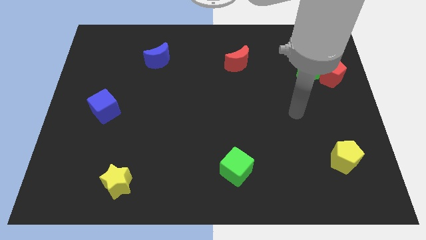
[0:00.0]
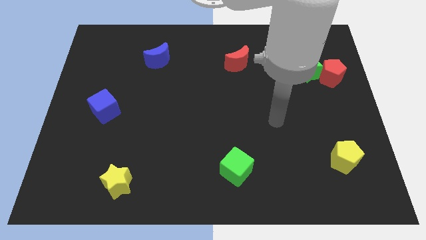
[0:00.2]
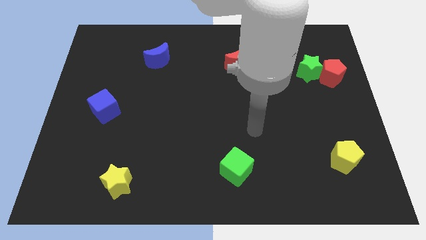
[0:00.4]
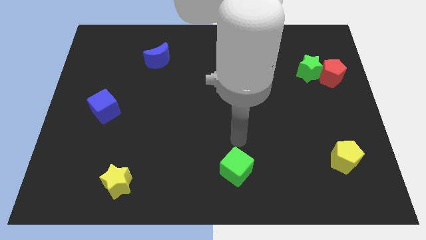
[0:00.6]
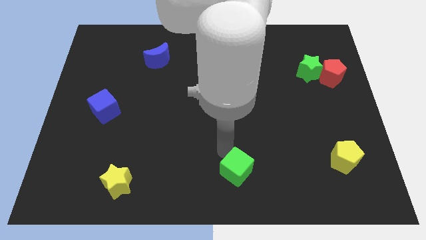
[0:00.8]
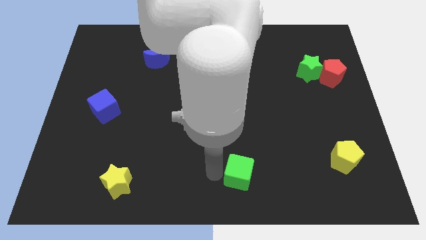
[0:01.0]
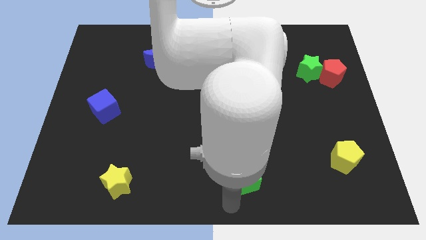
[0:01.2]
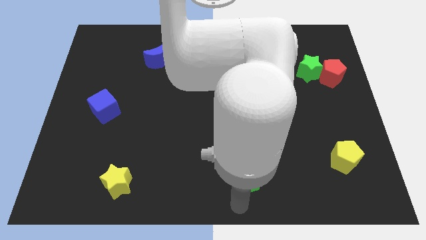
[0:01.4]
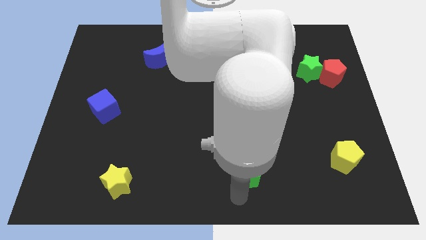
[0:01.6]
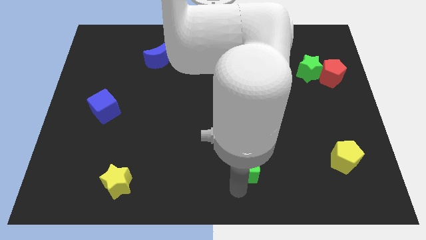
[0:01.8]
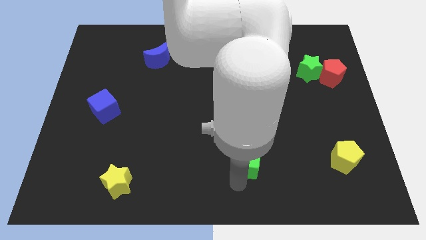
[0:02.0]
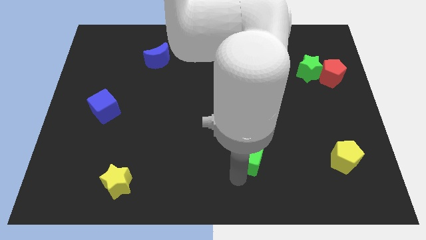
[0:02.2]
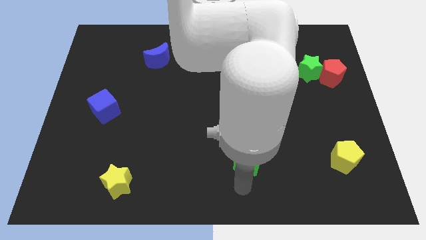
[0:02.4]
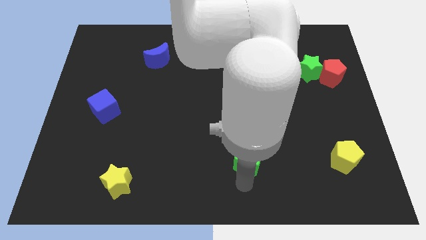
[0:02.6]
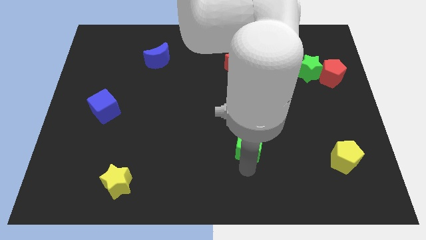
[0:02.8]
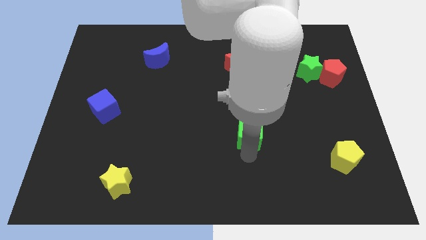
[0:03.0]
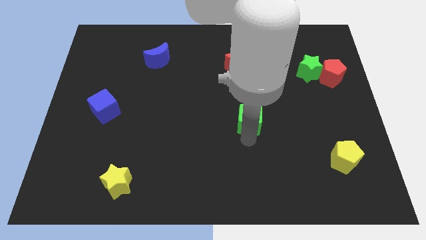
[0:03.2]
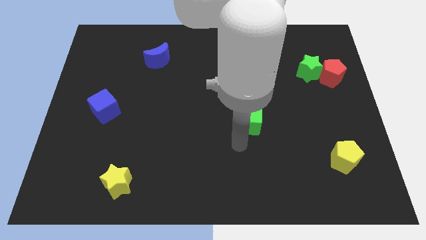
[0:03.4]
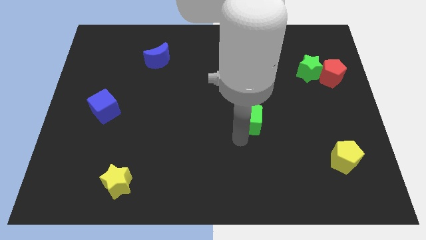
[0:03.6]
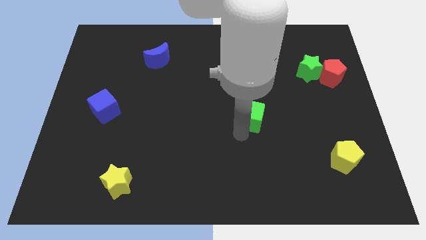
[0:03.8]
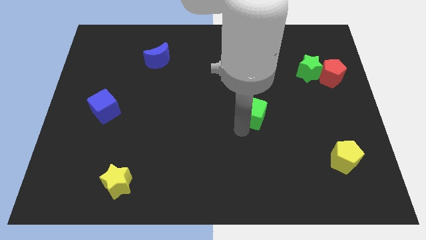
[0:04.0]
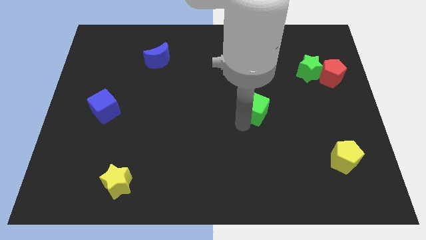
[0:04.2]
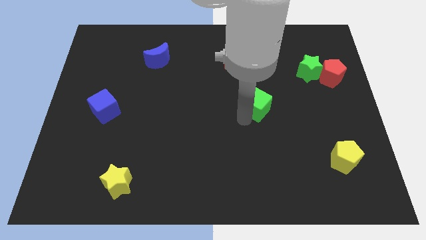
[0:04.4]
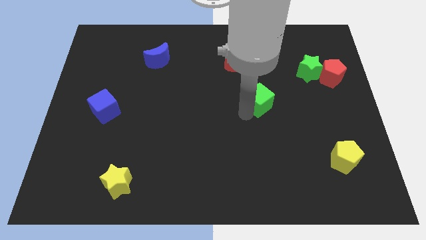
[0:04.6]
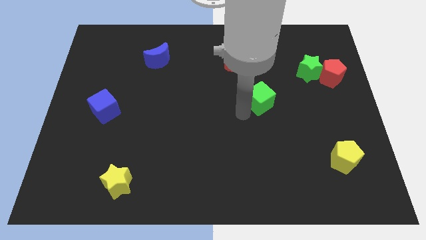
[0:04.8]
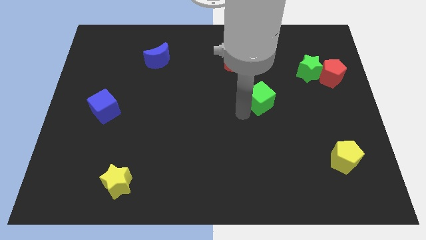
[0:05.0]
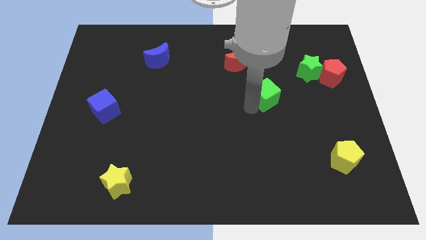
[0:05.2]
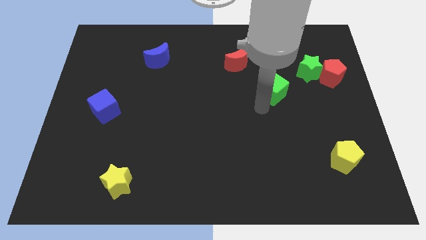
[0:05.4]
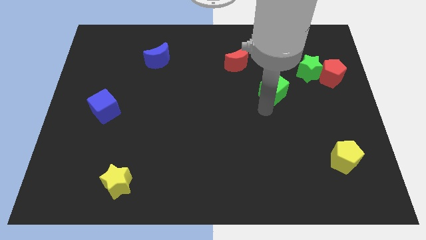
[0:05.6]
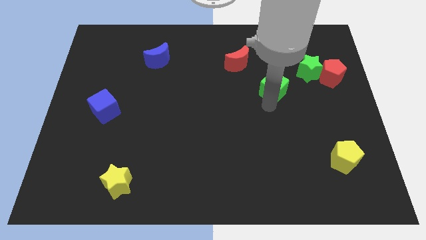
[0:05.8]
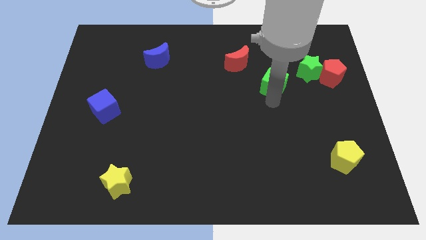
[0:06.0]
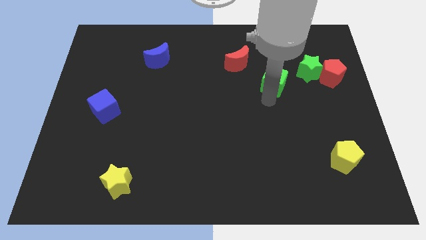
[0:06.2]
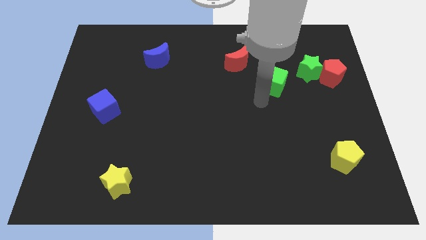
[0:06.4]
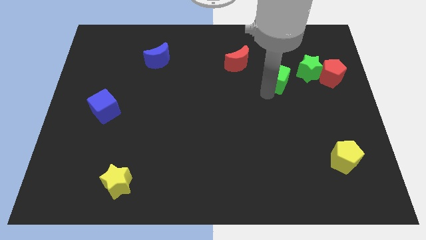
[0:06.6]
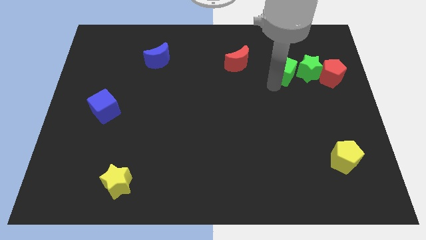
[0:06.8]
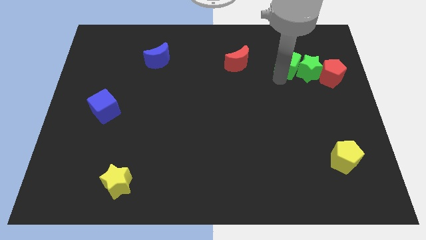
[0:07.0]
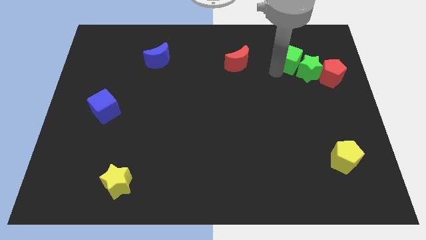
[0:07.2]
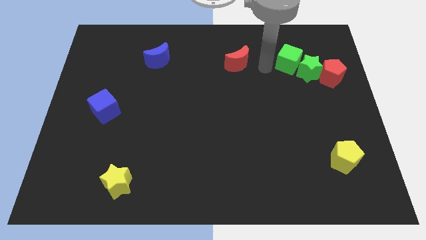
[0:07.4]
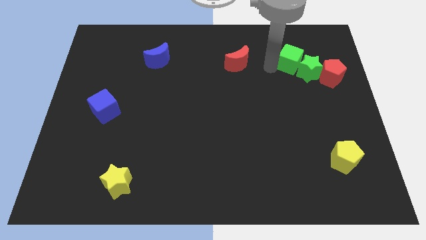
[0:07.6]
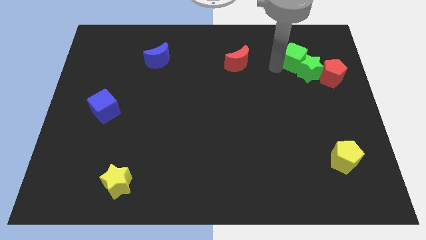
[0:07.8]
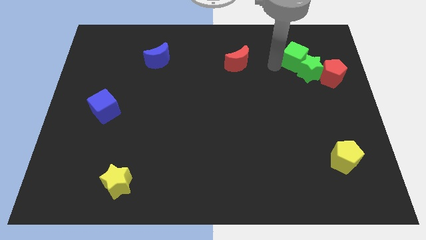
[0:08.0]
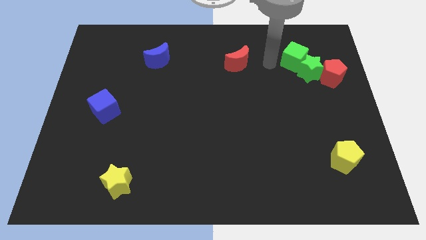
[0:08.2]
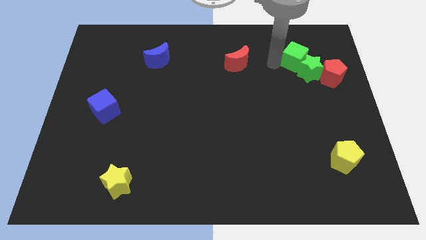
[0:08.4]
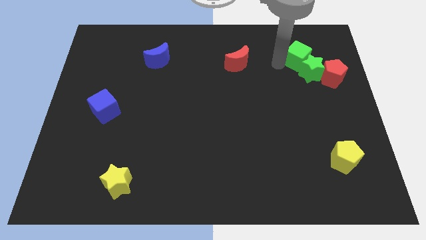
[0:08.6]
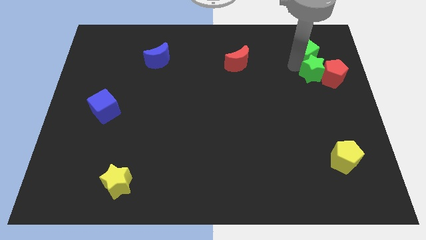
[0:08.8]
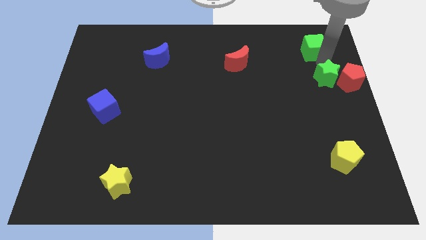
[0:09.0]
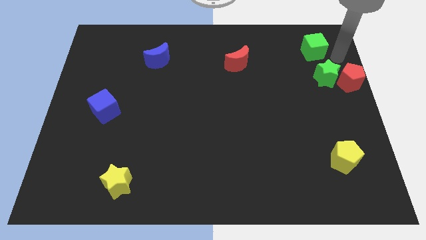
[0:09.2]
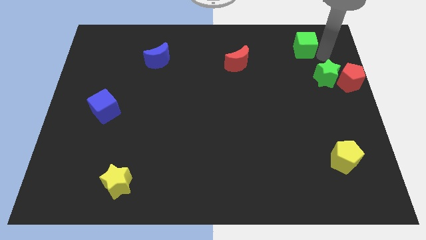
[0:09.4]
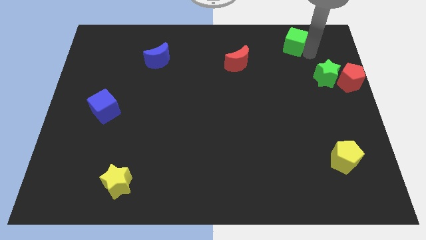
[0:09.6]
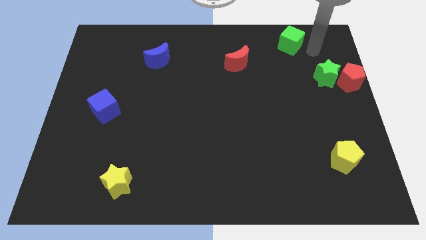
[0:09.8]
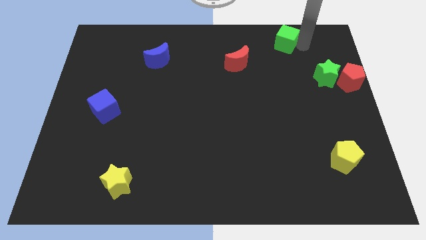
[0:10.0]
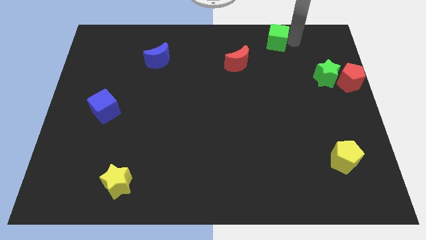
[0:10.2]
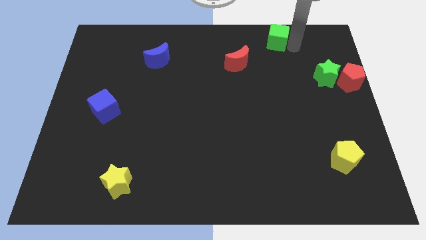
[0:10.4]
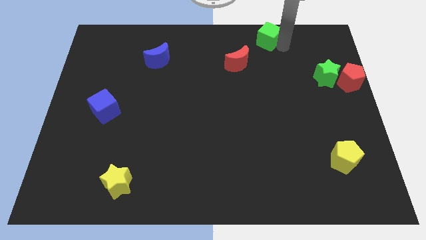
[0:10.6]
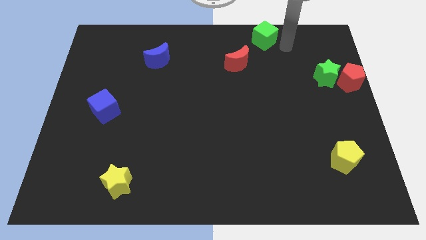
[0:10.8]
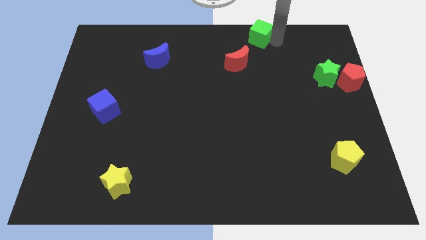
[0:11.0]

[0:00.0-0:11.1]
slide the green cube to the top side

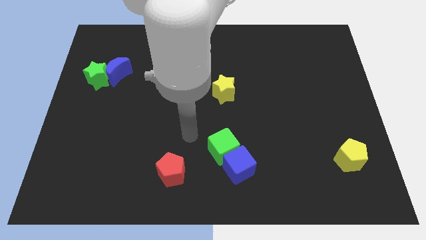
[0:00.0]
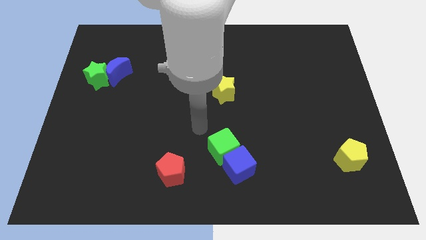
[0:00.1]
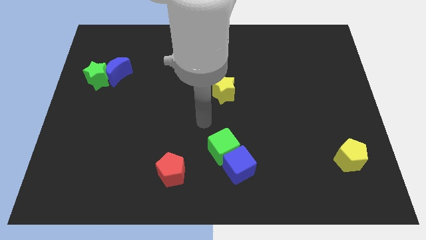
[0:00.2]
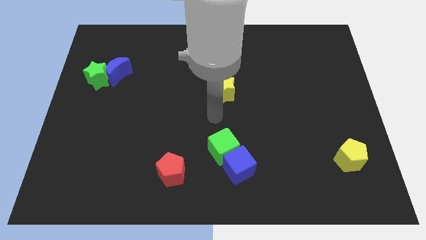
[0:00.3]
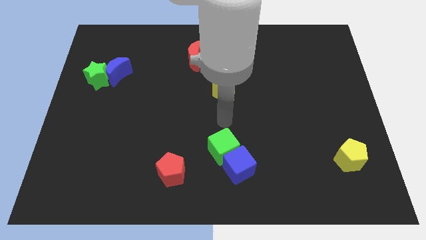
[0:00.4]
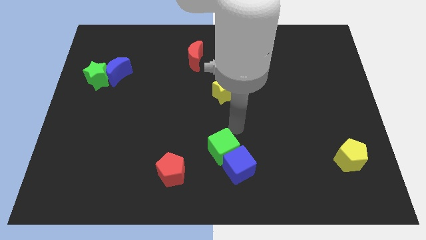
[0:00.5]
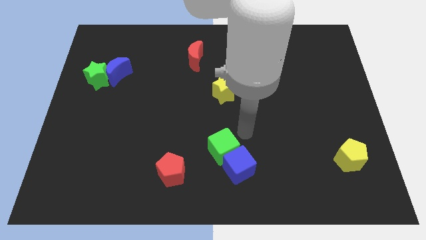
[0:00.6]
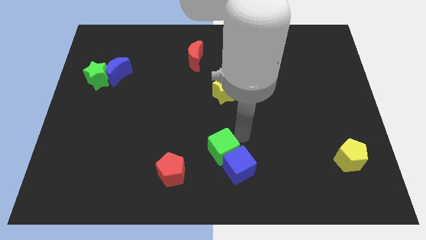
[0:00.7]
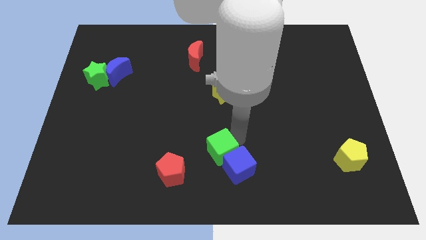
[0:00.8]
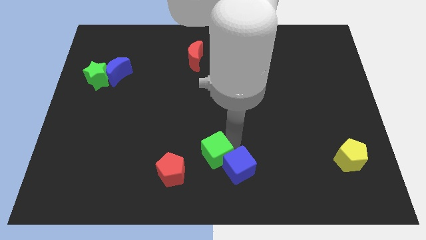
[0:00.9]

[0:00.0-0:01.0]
push the green cube to the bottom side
